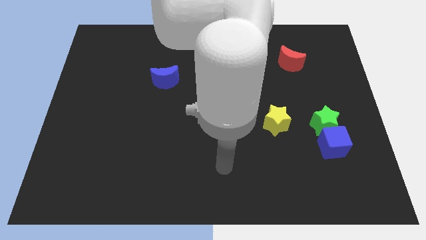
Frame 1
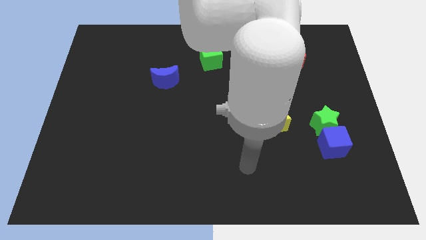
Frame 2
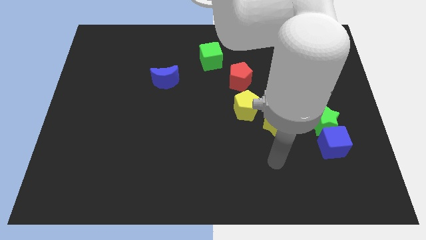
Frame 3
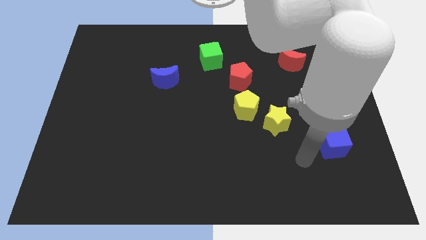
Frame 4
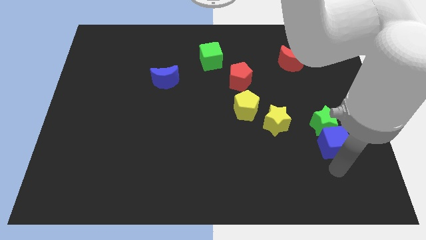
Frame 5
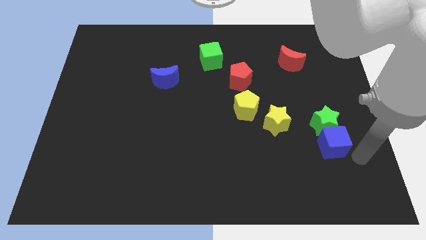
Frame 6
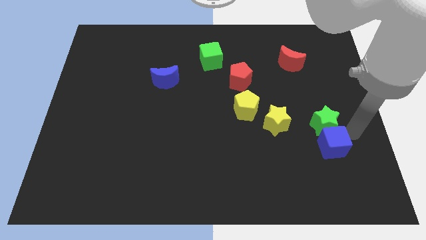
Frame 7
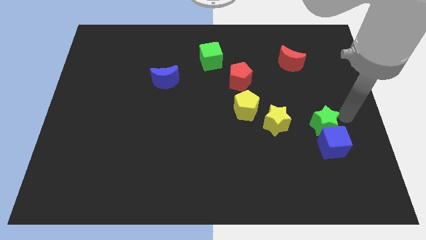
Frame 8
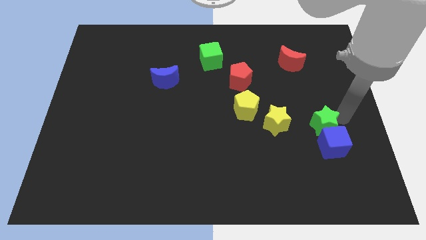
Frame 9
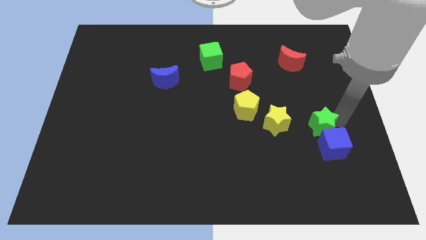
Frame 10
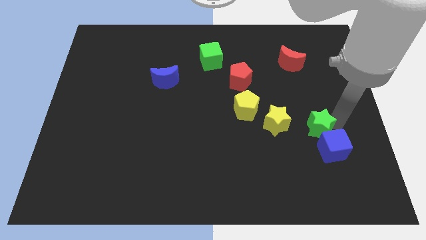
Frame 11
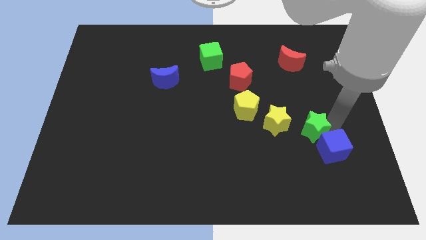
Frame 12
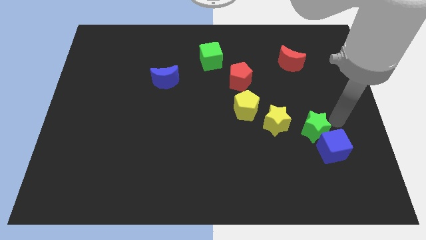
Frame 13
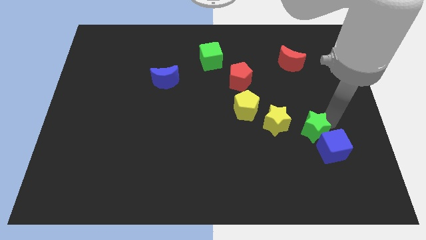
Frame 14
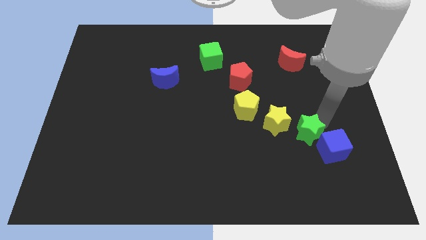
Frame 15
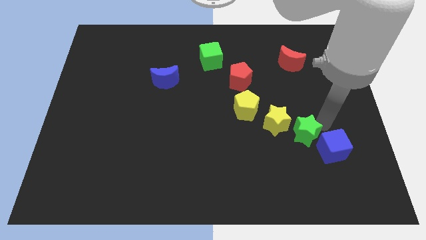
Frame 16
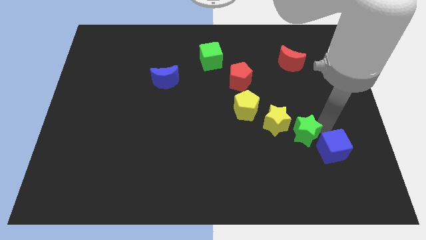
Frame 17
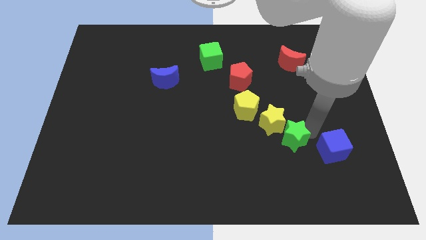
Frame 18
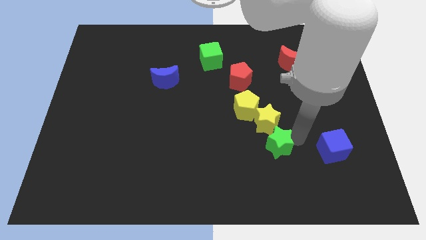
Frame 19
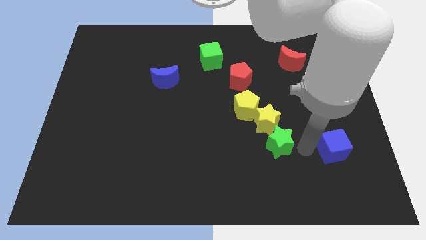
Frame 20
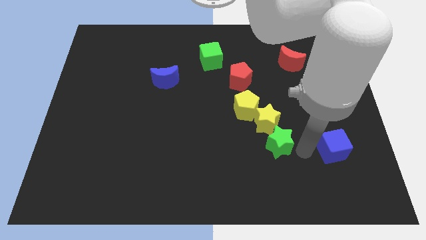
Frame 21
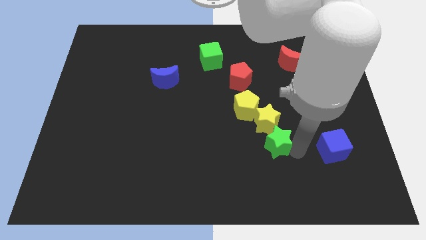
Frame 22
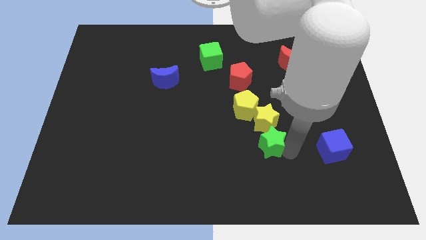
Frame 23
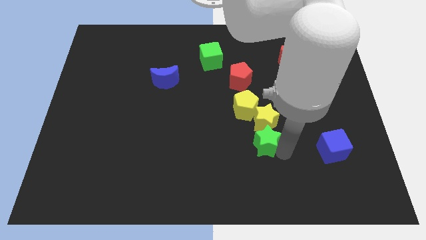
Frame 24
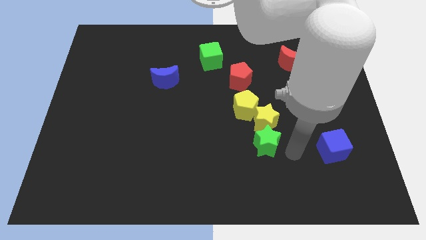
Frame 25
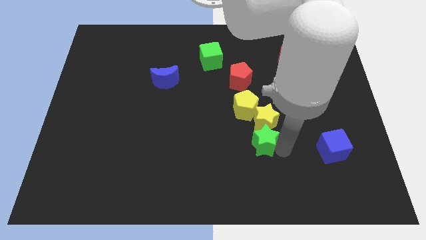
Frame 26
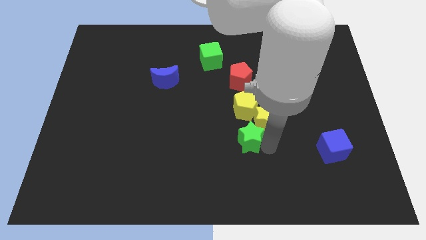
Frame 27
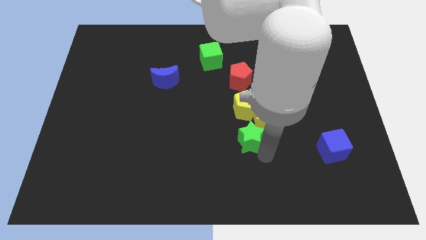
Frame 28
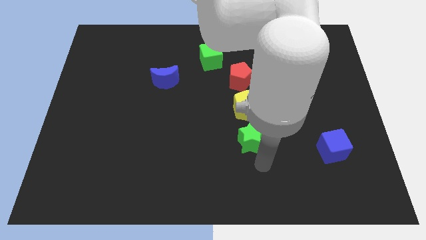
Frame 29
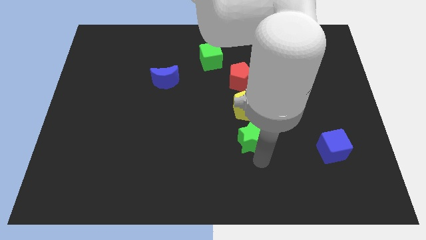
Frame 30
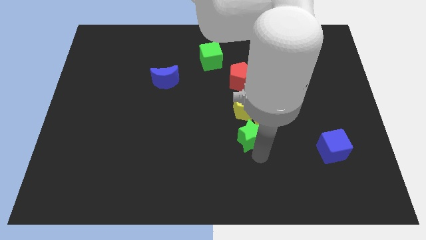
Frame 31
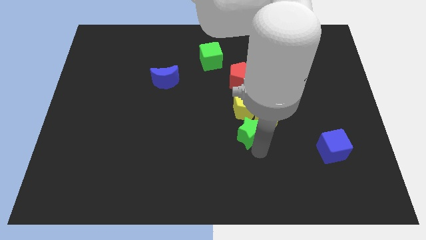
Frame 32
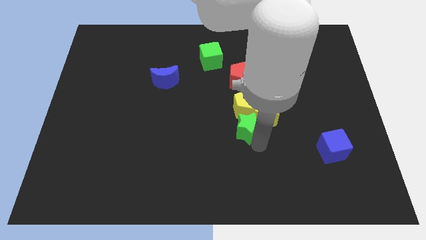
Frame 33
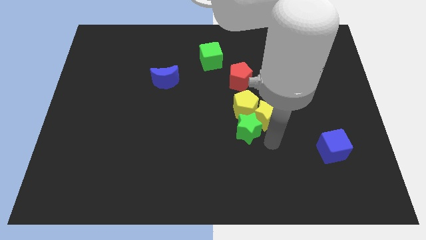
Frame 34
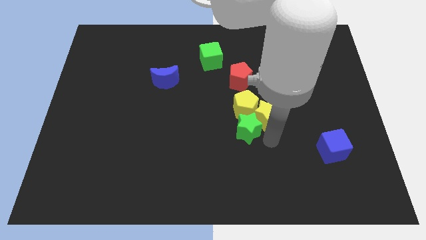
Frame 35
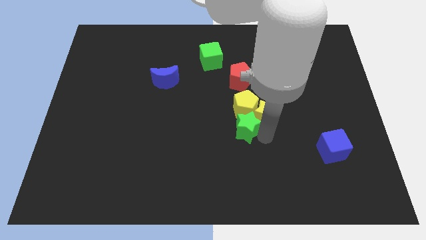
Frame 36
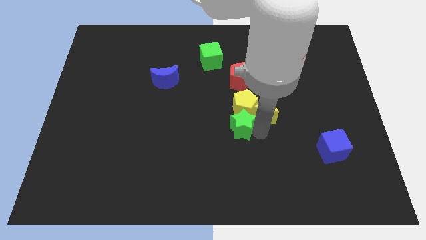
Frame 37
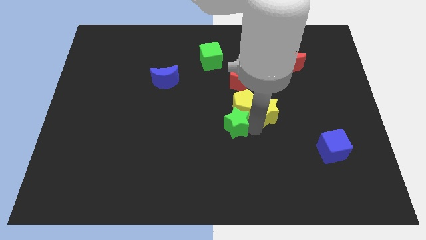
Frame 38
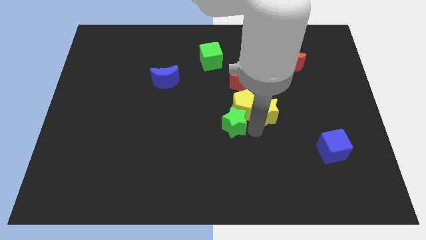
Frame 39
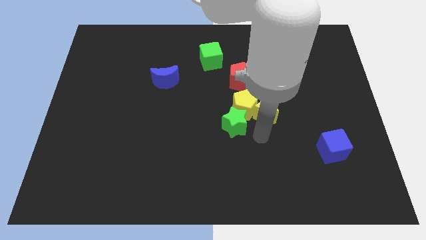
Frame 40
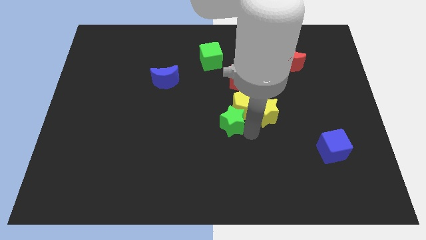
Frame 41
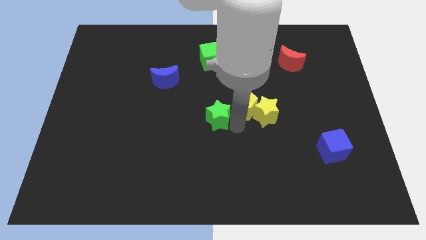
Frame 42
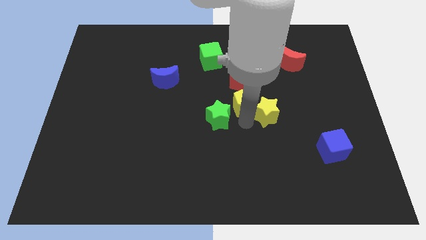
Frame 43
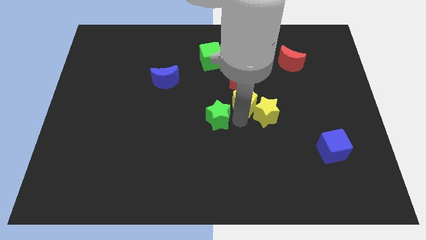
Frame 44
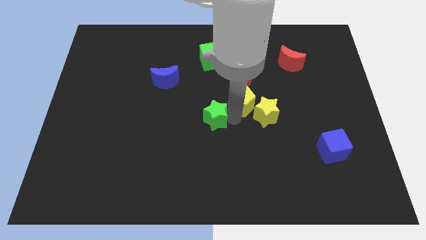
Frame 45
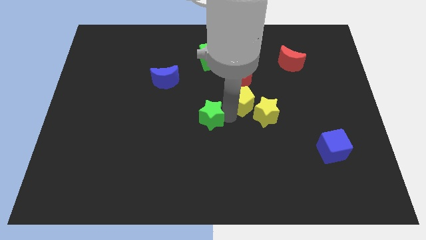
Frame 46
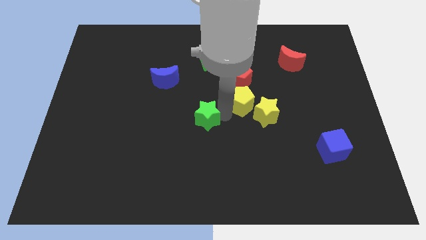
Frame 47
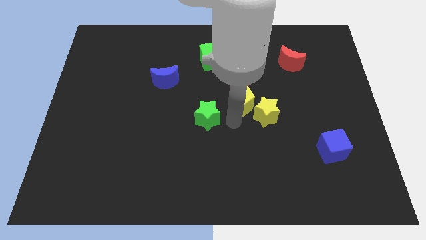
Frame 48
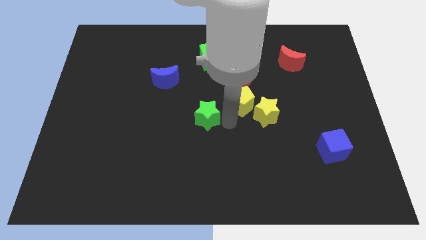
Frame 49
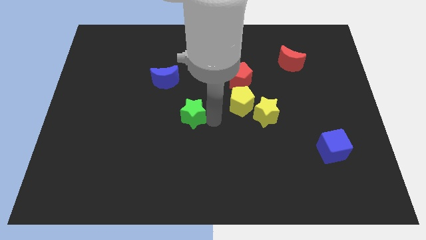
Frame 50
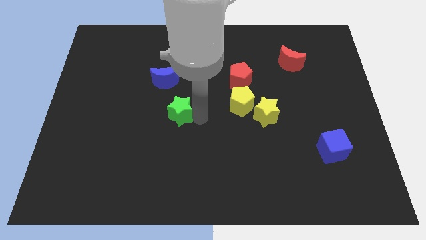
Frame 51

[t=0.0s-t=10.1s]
move the green star to the bottom of the blue moon

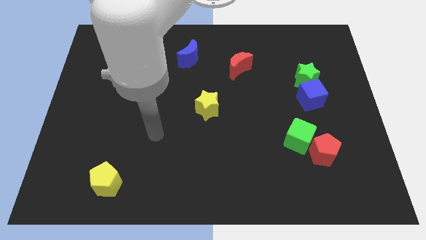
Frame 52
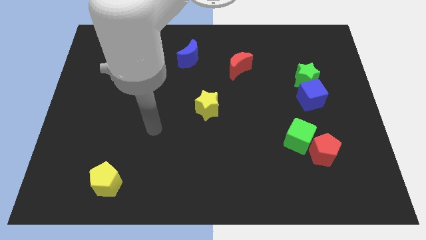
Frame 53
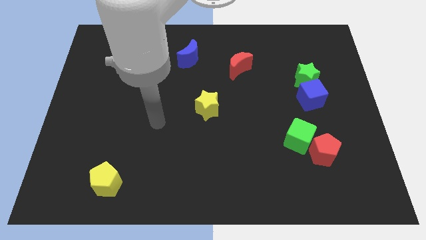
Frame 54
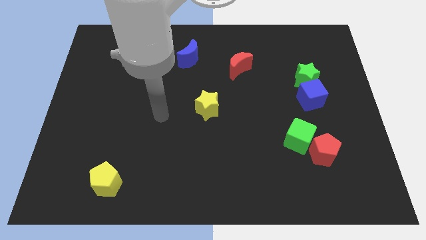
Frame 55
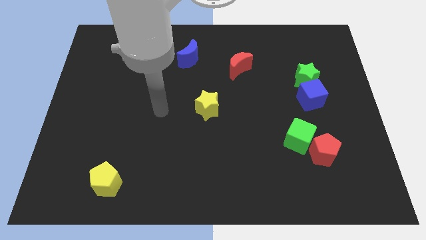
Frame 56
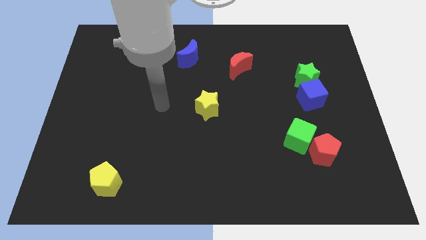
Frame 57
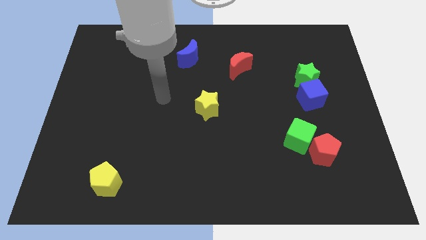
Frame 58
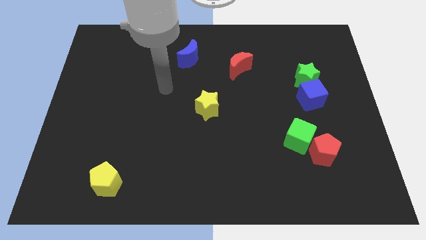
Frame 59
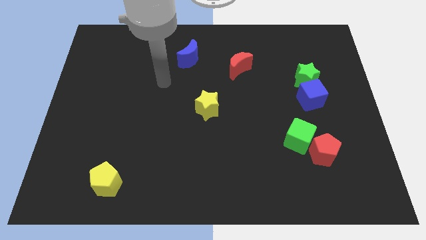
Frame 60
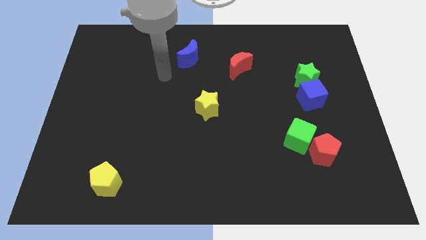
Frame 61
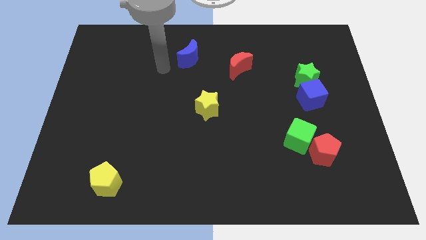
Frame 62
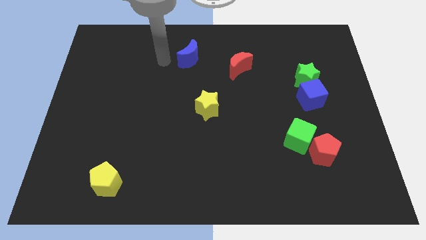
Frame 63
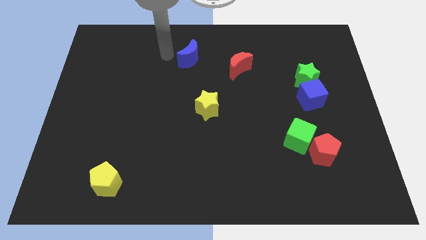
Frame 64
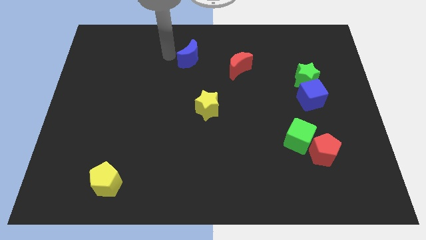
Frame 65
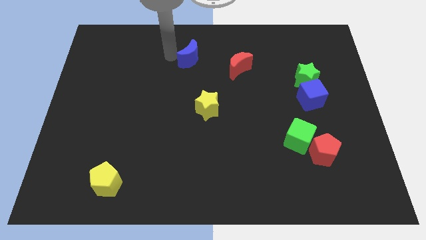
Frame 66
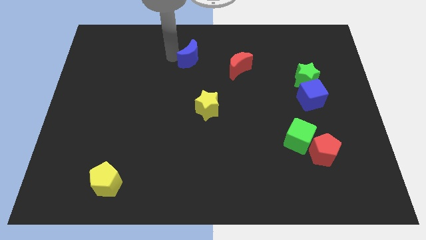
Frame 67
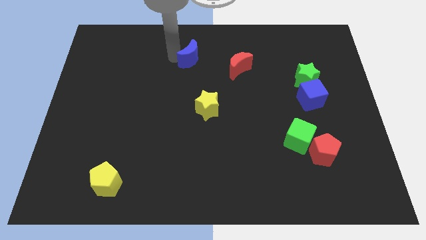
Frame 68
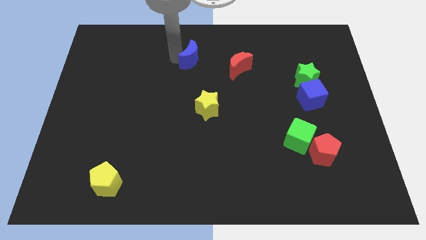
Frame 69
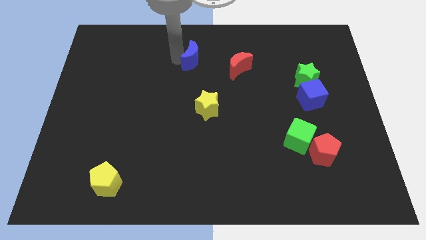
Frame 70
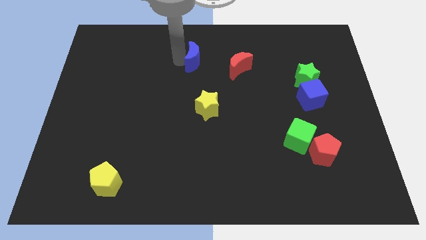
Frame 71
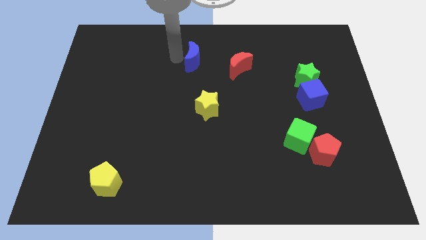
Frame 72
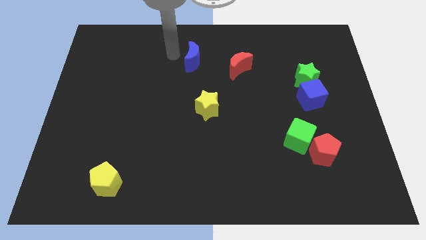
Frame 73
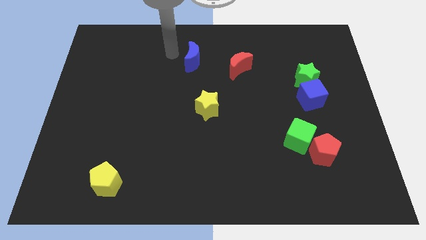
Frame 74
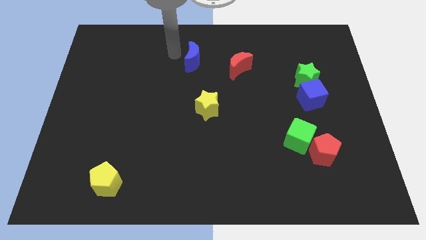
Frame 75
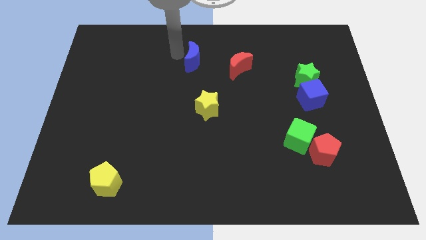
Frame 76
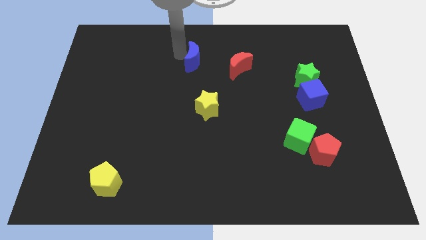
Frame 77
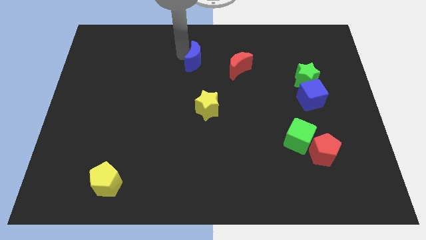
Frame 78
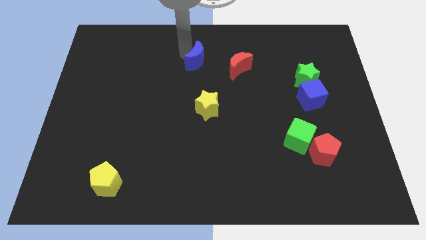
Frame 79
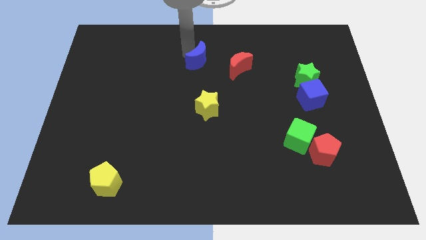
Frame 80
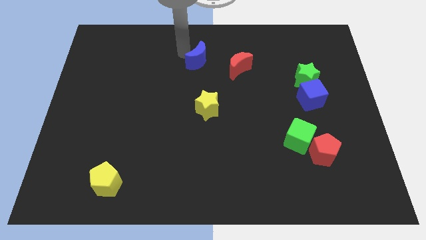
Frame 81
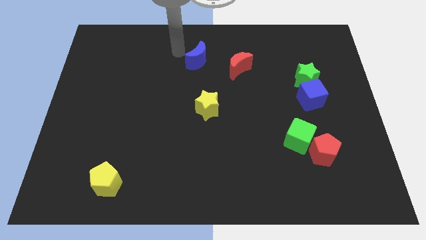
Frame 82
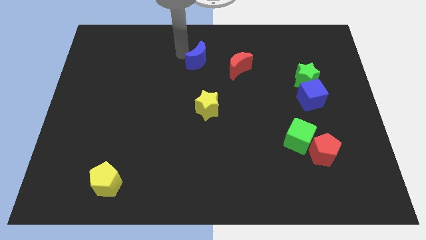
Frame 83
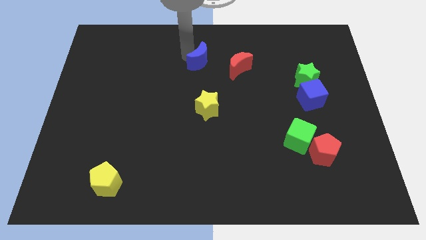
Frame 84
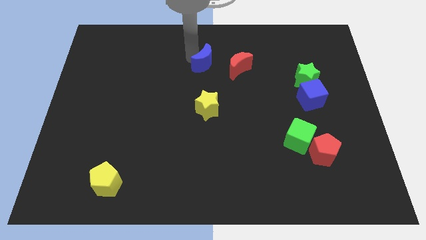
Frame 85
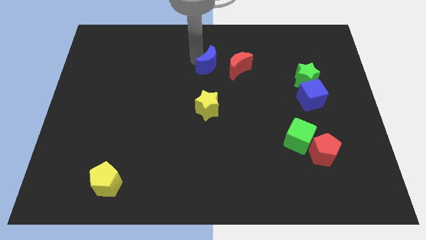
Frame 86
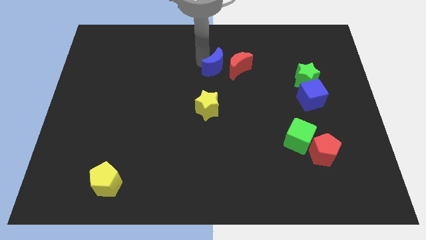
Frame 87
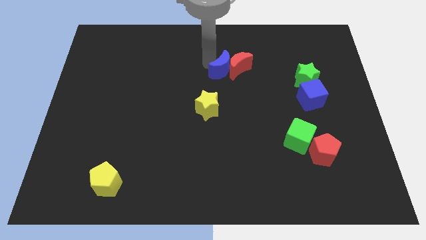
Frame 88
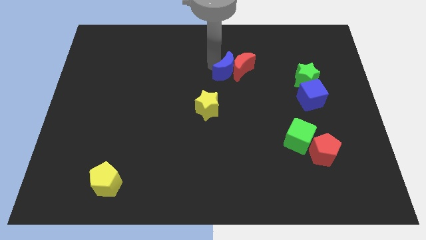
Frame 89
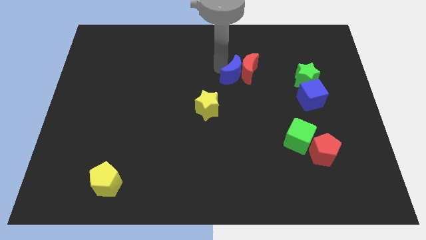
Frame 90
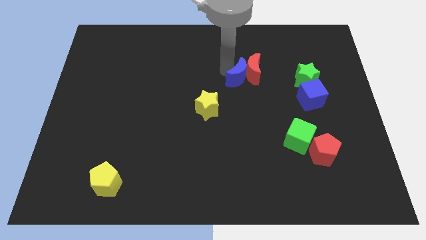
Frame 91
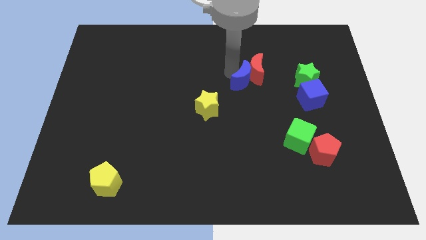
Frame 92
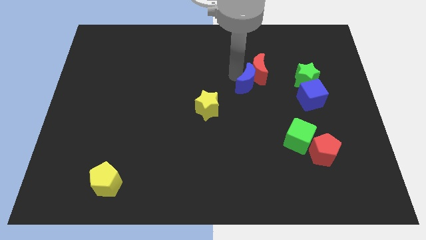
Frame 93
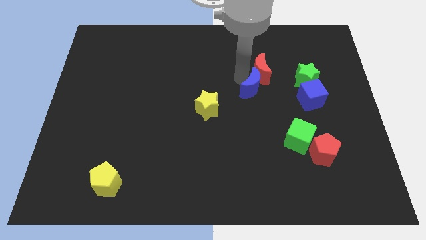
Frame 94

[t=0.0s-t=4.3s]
move the blue moon to the left of the blue cube
